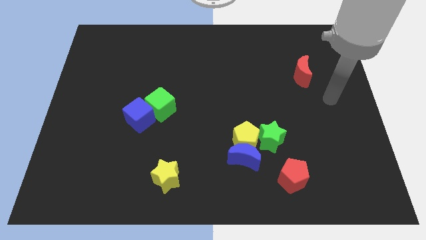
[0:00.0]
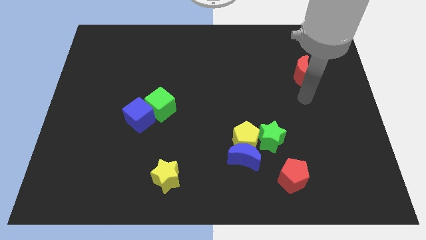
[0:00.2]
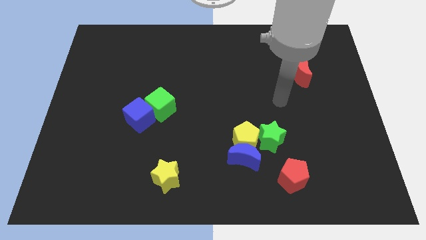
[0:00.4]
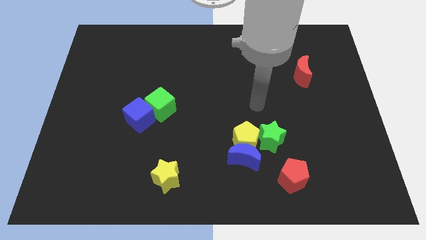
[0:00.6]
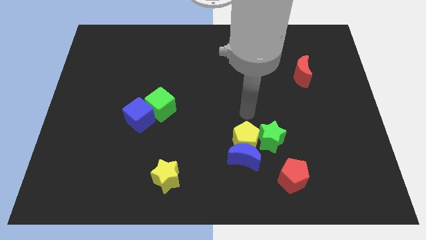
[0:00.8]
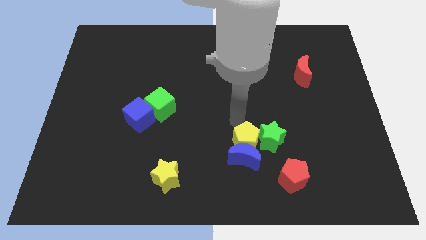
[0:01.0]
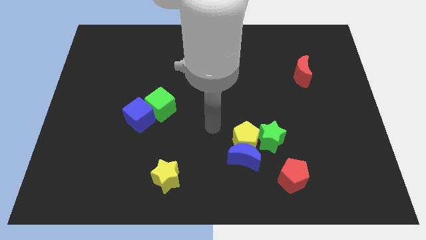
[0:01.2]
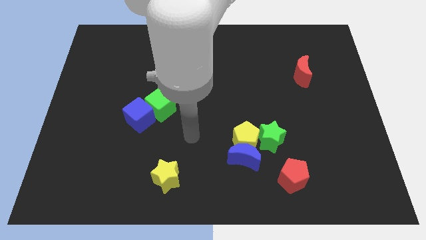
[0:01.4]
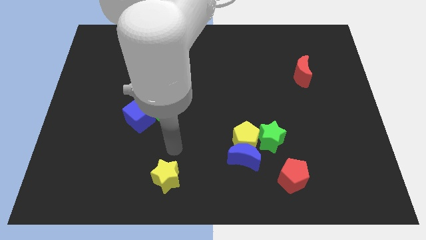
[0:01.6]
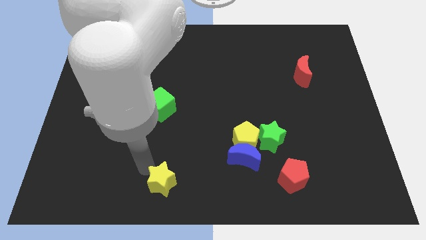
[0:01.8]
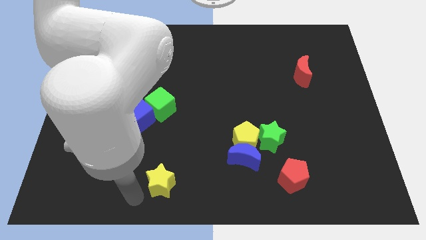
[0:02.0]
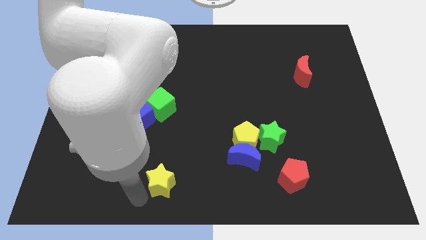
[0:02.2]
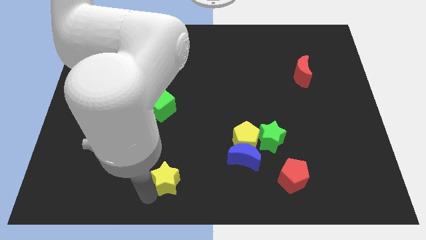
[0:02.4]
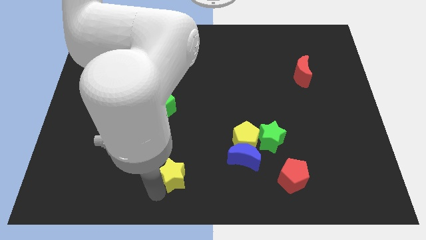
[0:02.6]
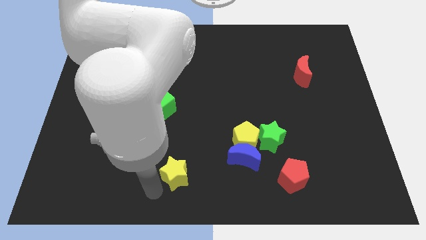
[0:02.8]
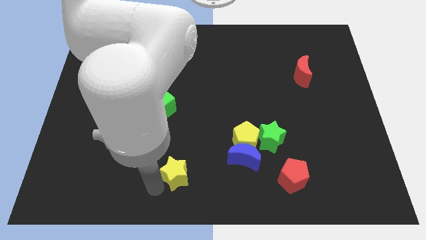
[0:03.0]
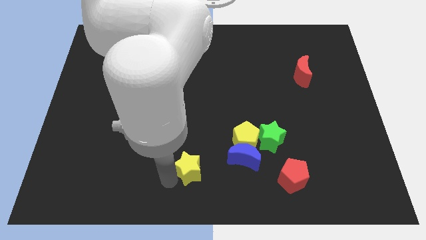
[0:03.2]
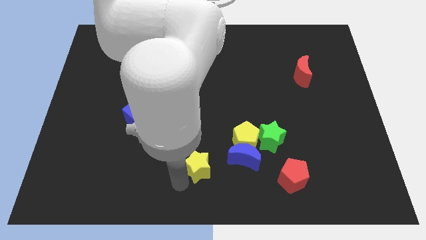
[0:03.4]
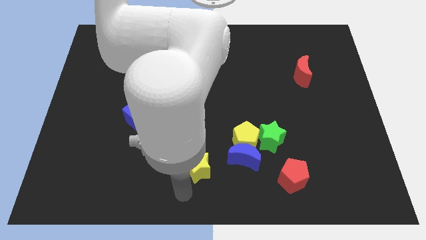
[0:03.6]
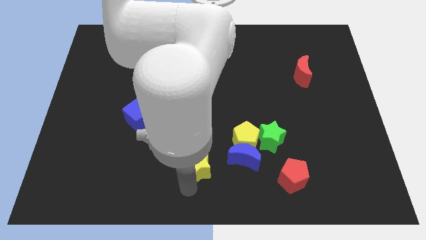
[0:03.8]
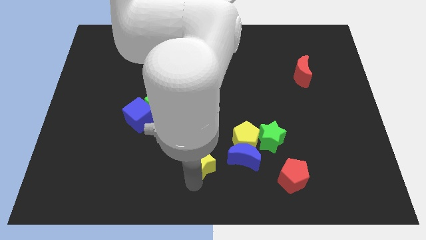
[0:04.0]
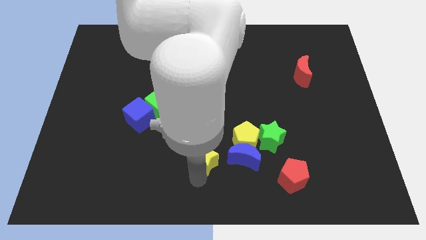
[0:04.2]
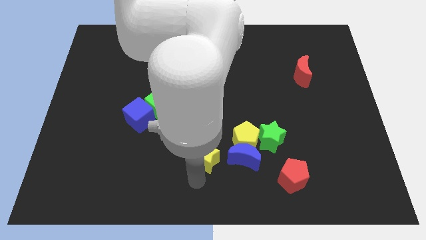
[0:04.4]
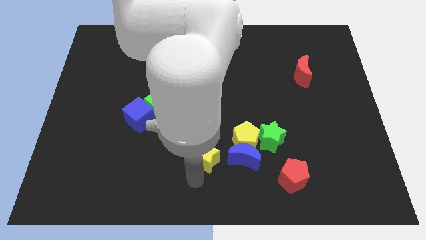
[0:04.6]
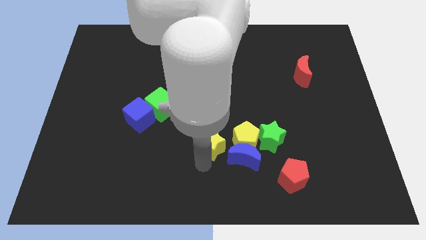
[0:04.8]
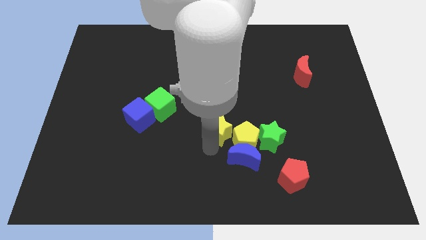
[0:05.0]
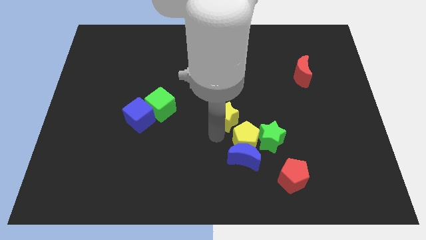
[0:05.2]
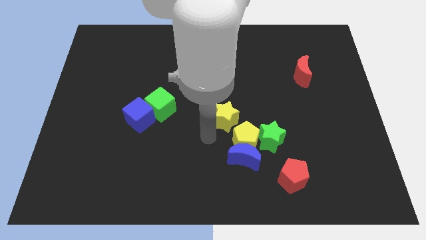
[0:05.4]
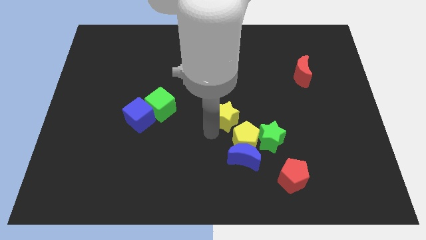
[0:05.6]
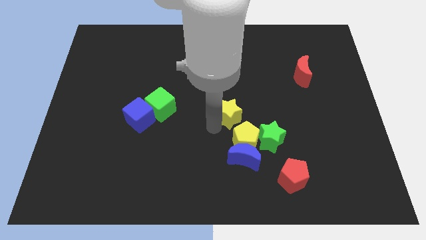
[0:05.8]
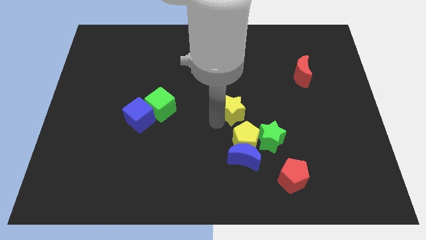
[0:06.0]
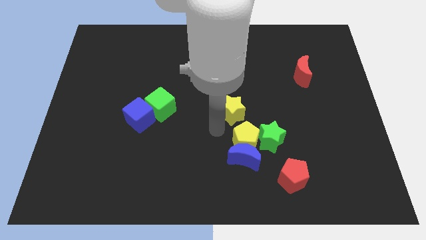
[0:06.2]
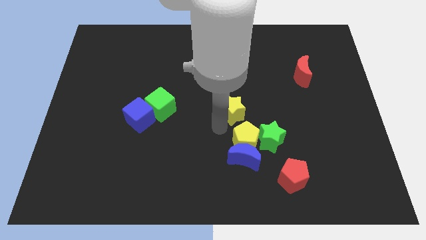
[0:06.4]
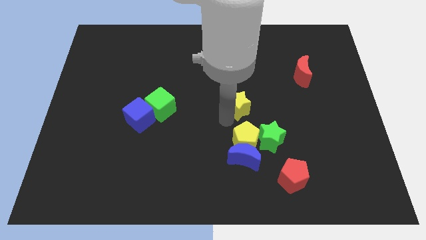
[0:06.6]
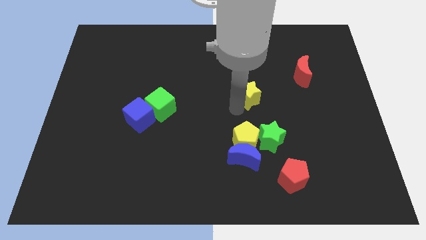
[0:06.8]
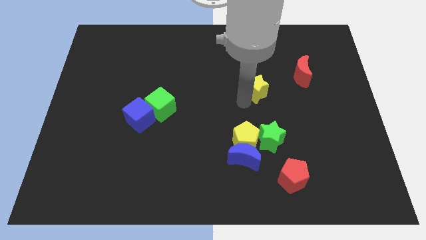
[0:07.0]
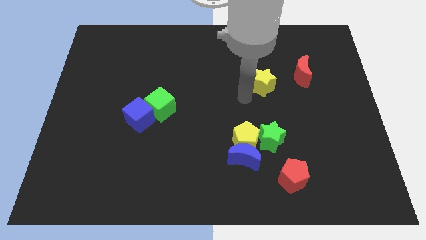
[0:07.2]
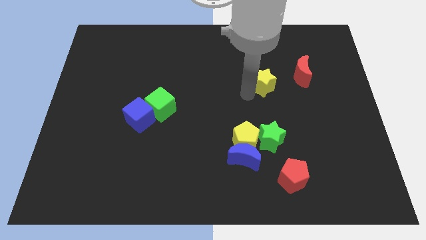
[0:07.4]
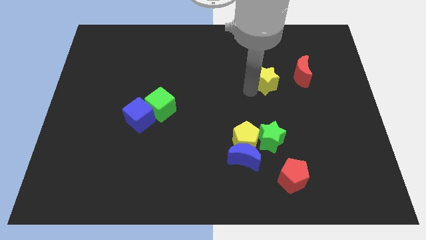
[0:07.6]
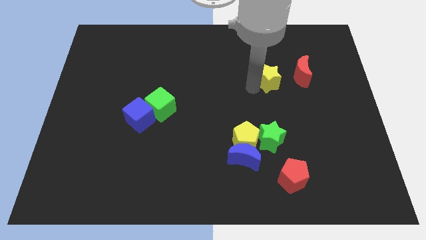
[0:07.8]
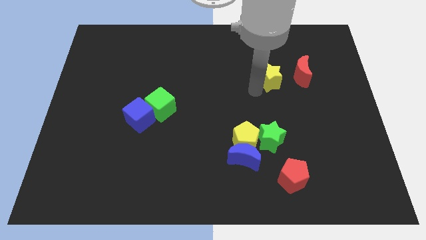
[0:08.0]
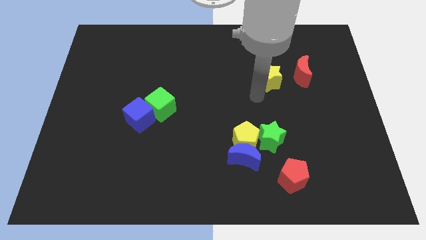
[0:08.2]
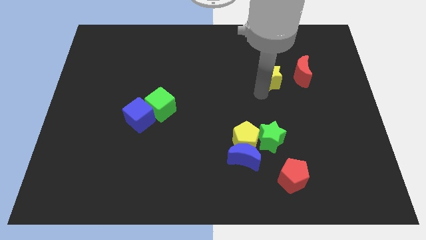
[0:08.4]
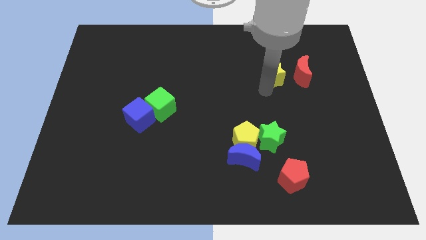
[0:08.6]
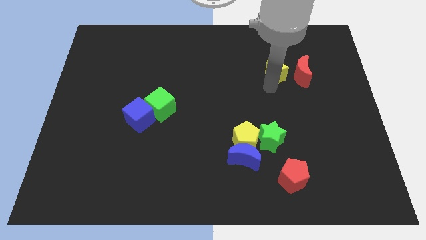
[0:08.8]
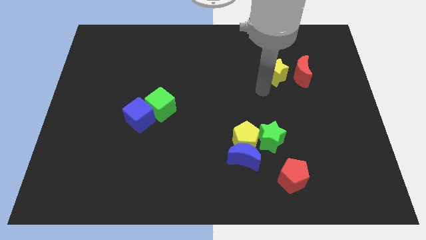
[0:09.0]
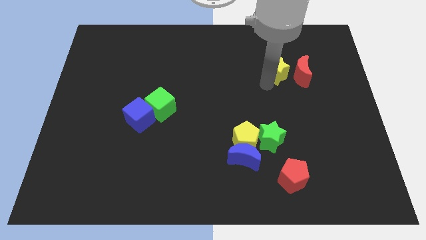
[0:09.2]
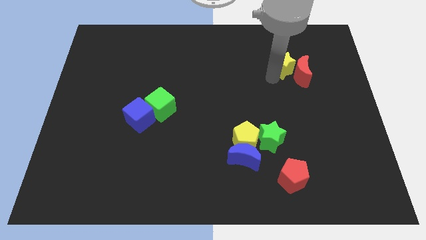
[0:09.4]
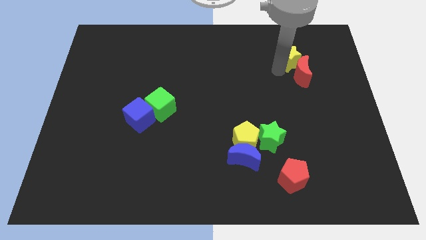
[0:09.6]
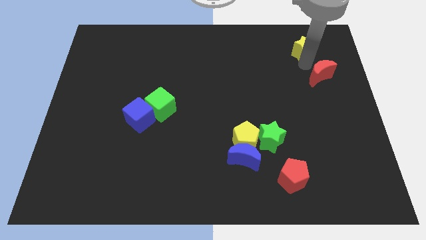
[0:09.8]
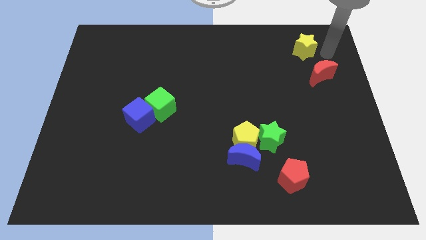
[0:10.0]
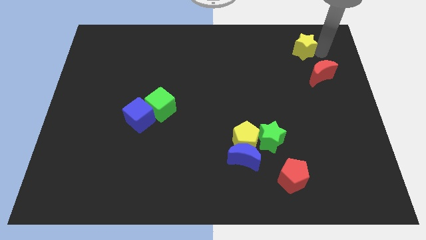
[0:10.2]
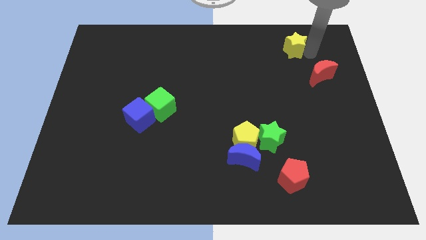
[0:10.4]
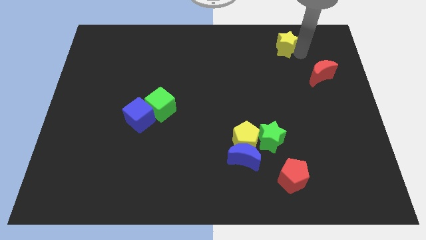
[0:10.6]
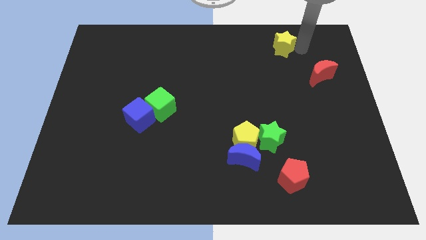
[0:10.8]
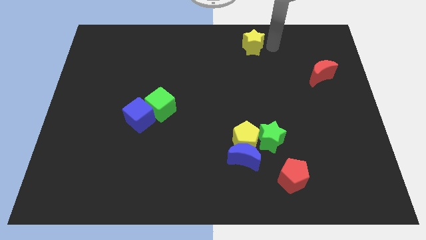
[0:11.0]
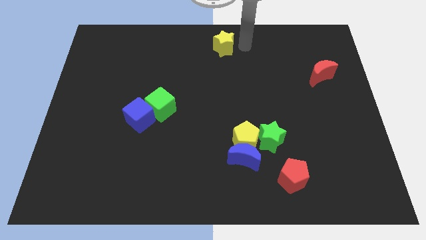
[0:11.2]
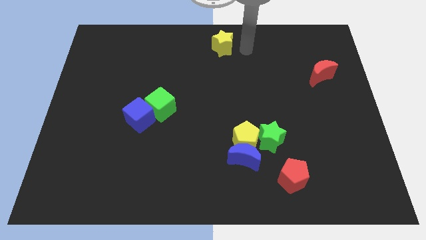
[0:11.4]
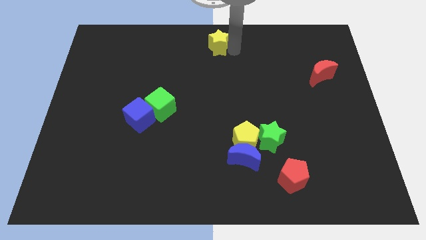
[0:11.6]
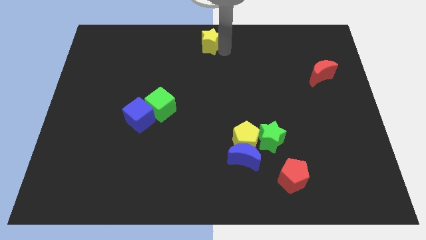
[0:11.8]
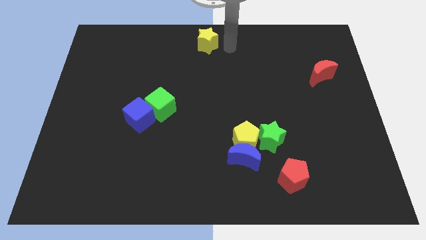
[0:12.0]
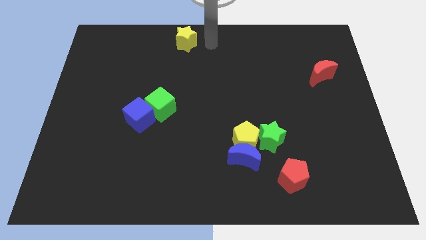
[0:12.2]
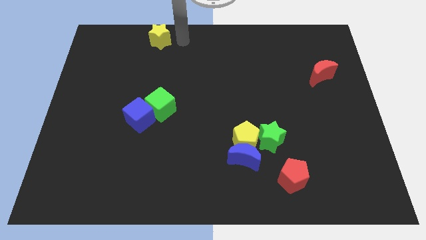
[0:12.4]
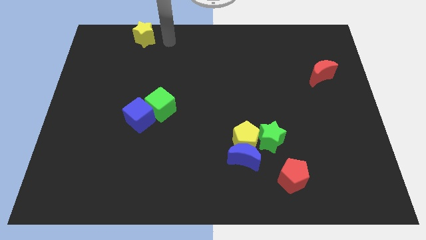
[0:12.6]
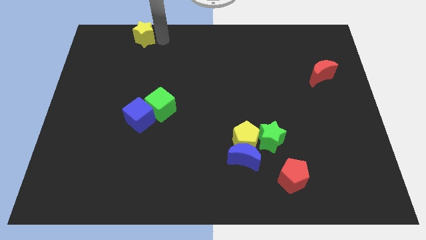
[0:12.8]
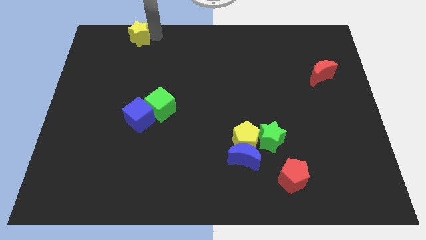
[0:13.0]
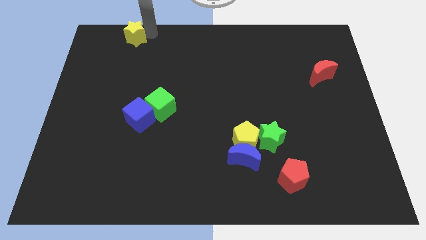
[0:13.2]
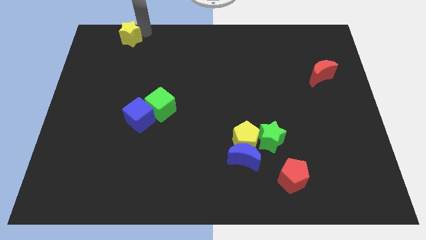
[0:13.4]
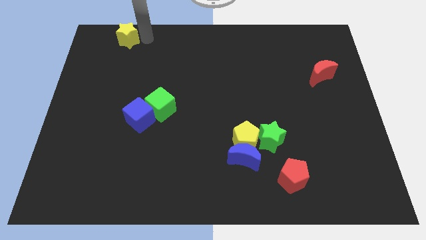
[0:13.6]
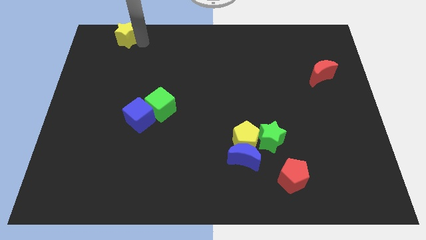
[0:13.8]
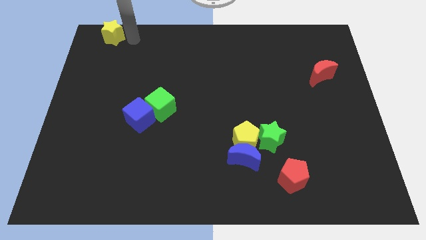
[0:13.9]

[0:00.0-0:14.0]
put the yellow star to the top left
